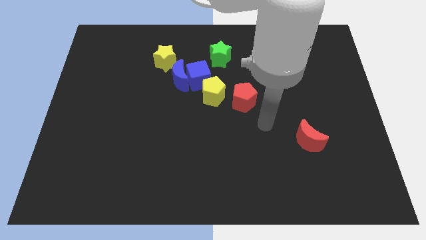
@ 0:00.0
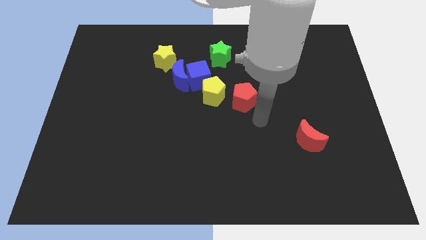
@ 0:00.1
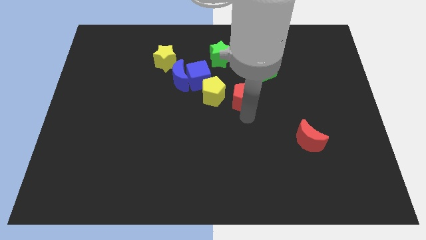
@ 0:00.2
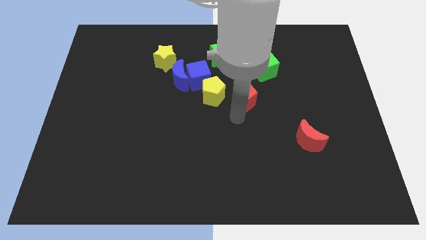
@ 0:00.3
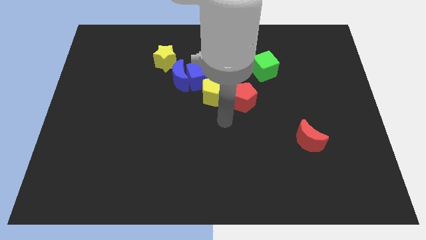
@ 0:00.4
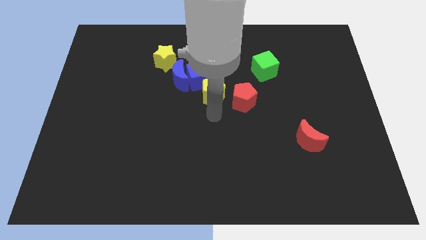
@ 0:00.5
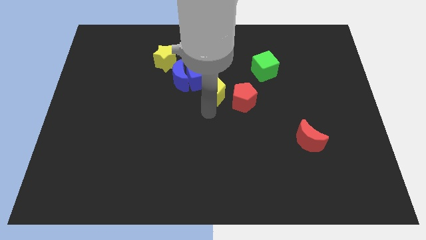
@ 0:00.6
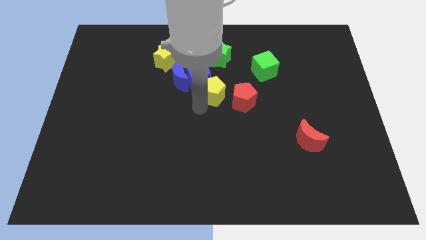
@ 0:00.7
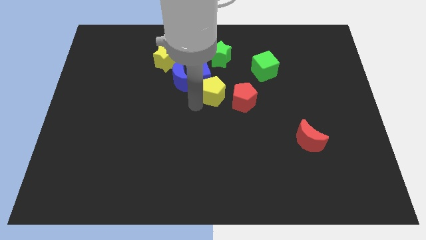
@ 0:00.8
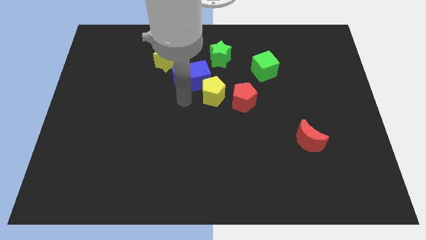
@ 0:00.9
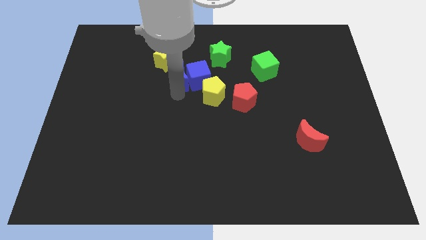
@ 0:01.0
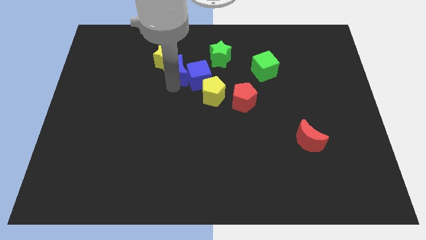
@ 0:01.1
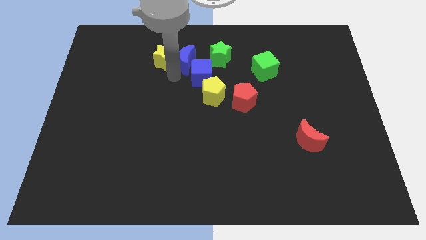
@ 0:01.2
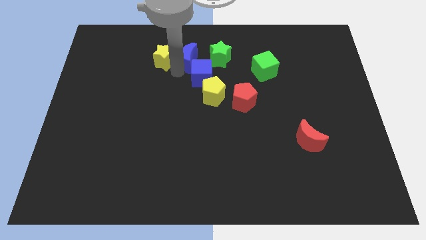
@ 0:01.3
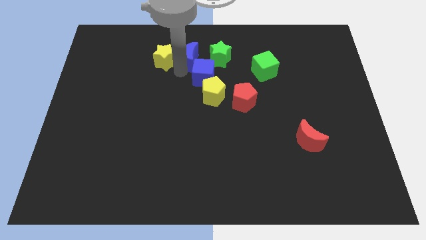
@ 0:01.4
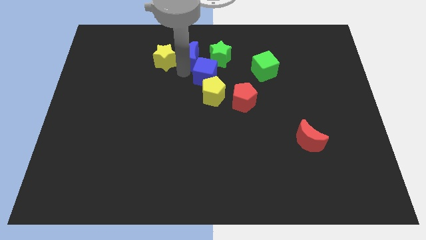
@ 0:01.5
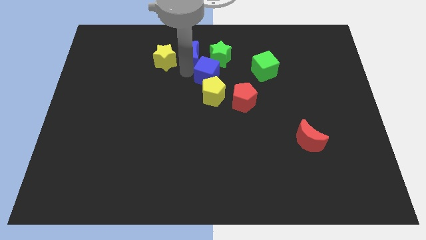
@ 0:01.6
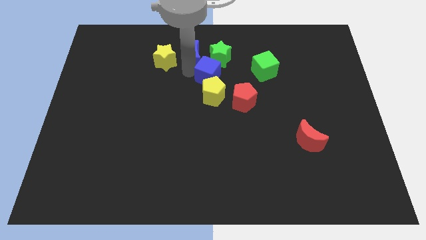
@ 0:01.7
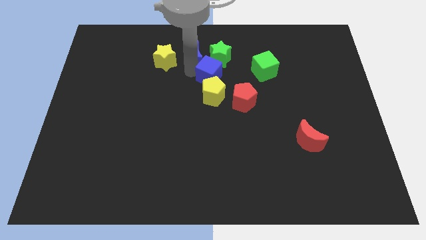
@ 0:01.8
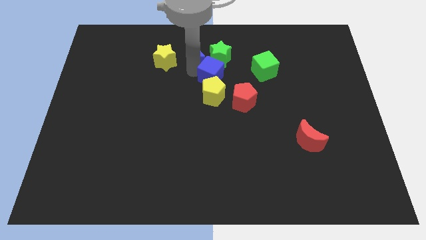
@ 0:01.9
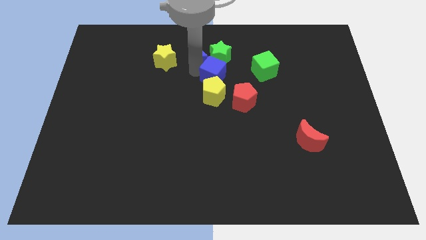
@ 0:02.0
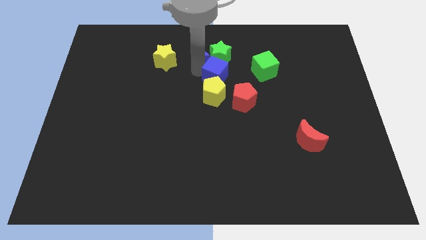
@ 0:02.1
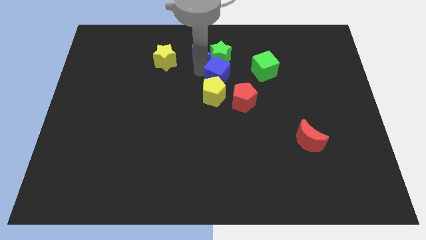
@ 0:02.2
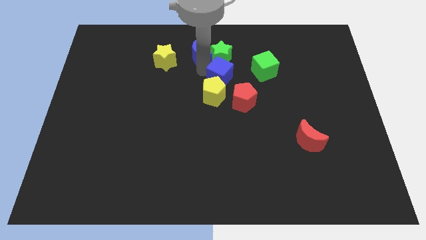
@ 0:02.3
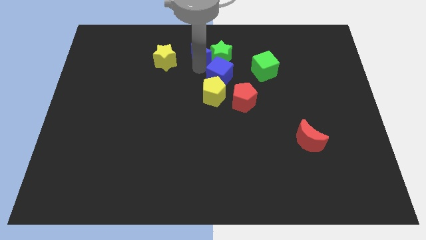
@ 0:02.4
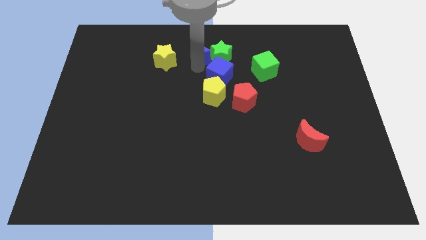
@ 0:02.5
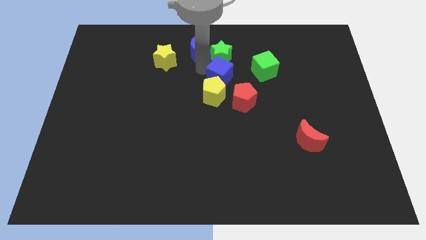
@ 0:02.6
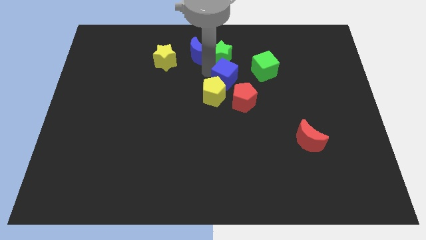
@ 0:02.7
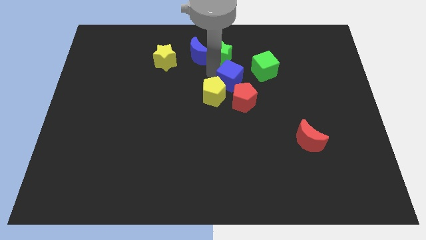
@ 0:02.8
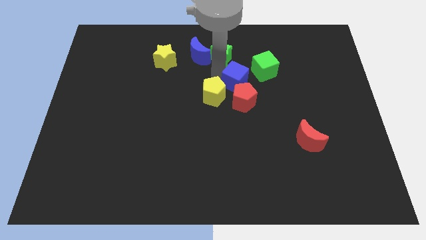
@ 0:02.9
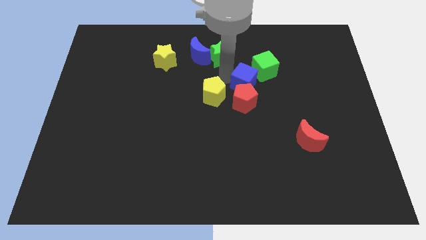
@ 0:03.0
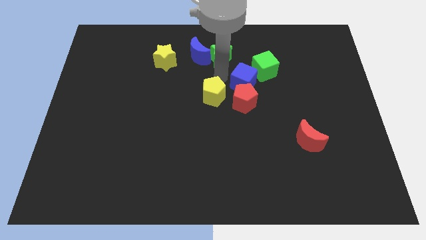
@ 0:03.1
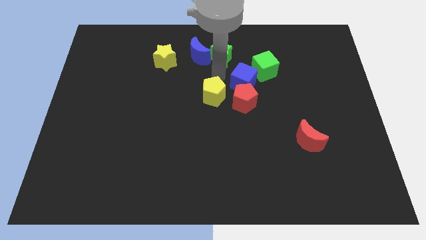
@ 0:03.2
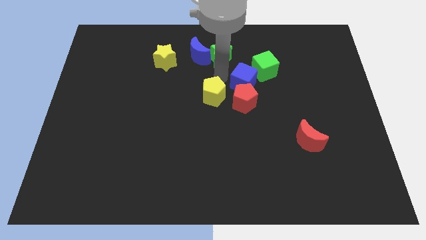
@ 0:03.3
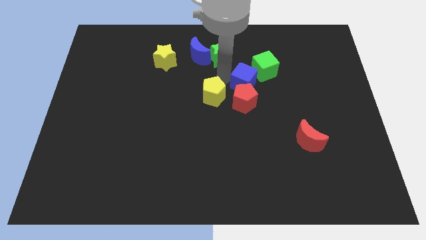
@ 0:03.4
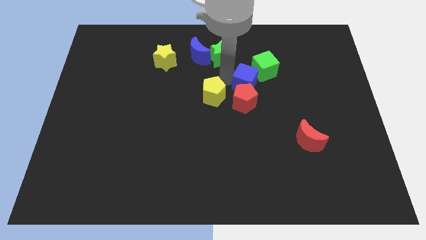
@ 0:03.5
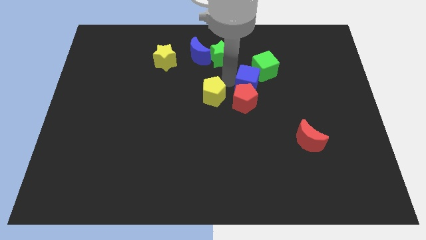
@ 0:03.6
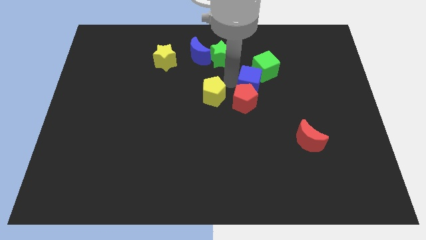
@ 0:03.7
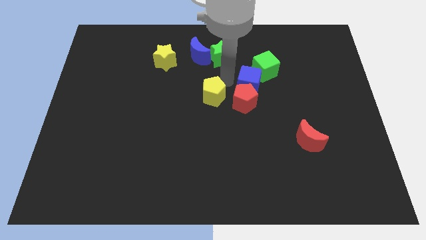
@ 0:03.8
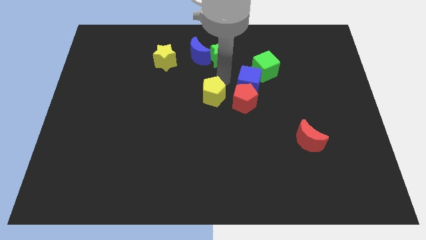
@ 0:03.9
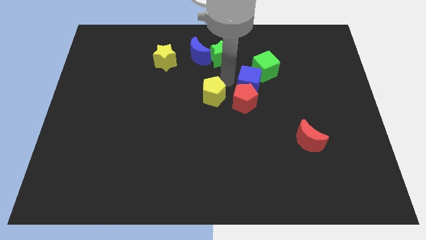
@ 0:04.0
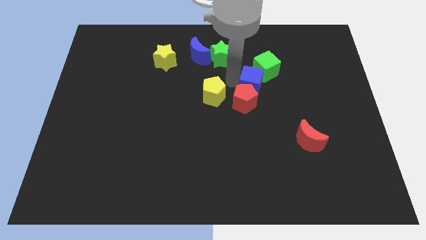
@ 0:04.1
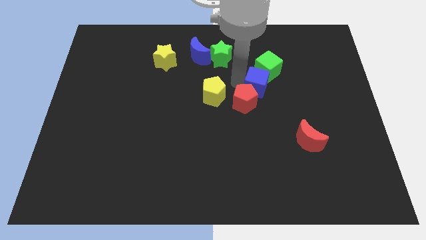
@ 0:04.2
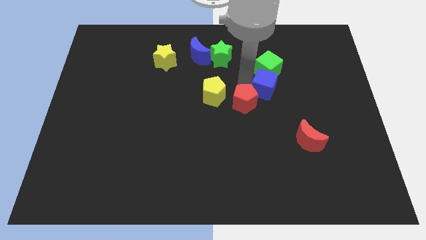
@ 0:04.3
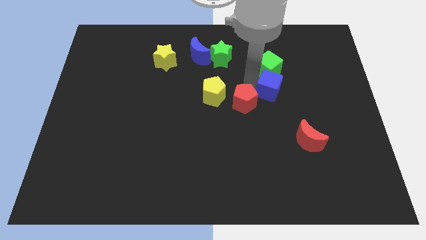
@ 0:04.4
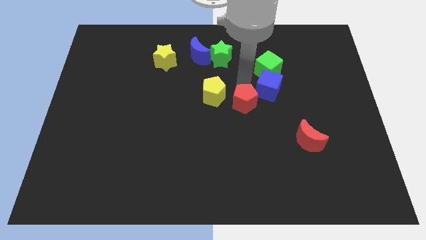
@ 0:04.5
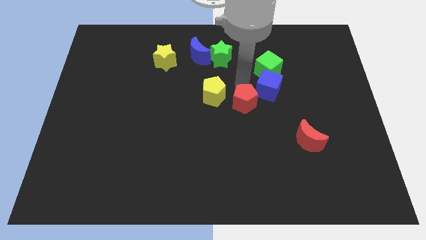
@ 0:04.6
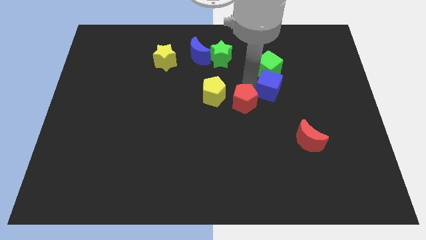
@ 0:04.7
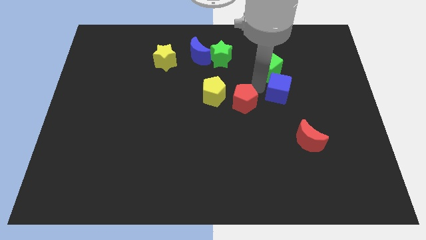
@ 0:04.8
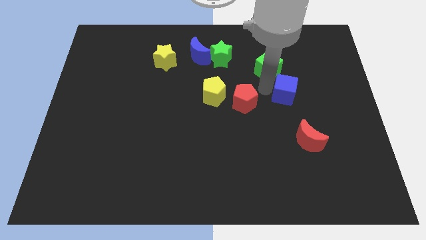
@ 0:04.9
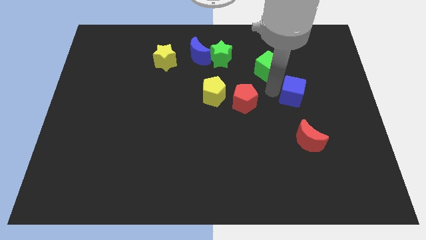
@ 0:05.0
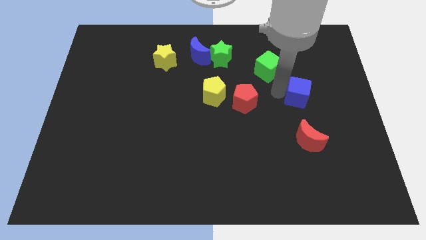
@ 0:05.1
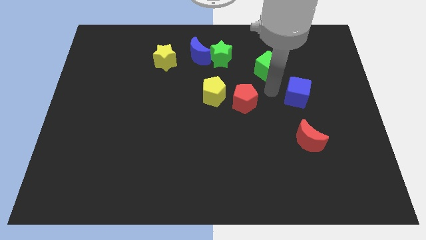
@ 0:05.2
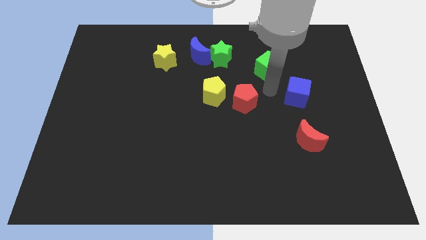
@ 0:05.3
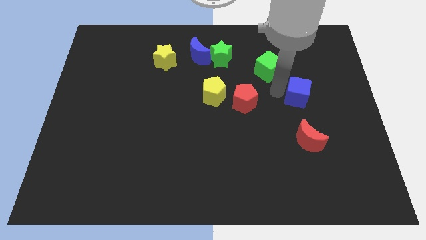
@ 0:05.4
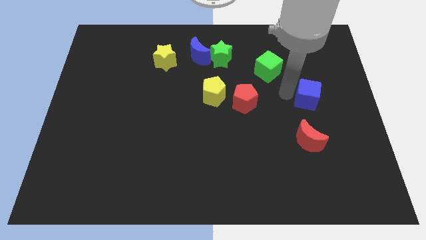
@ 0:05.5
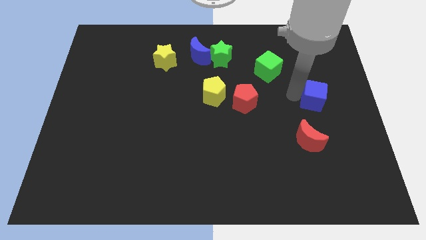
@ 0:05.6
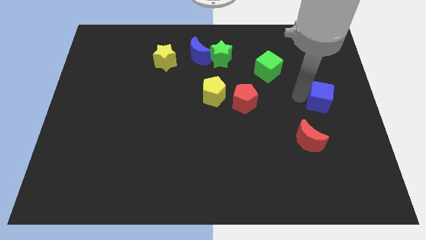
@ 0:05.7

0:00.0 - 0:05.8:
move the blue cube to the center right

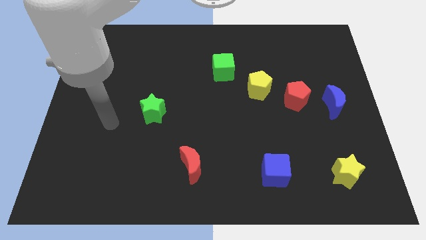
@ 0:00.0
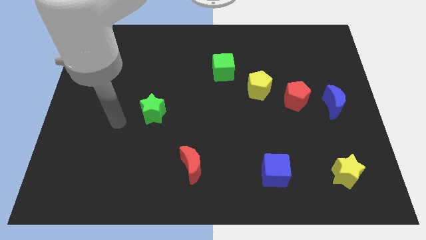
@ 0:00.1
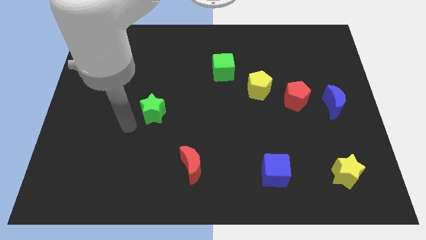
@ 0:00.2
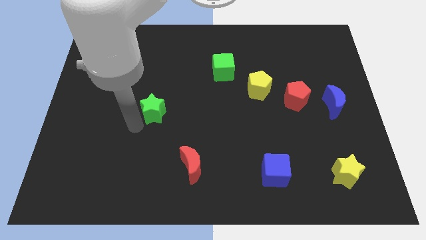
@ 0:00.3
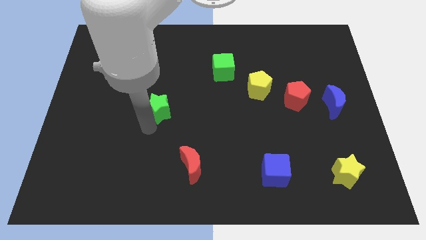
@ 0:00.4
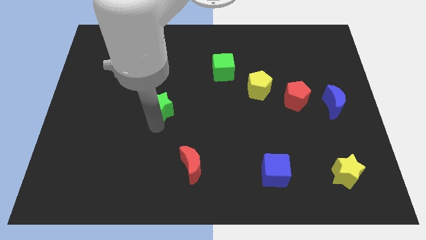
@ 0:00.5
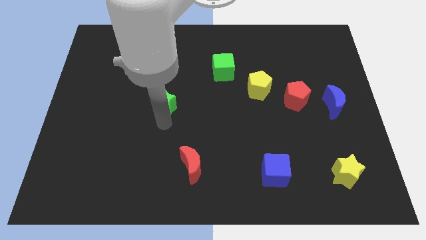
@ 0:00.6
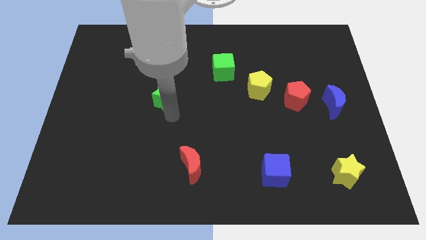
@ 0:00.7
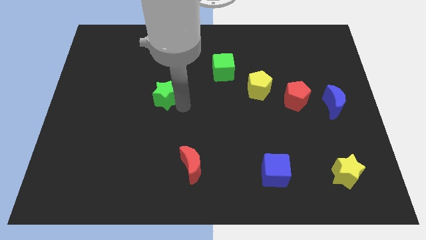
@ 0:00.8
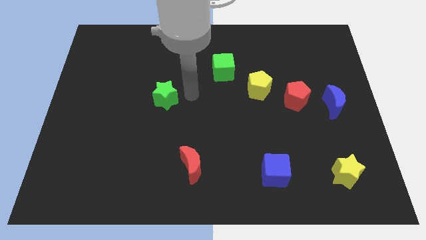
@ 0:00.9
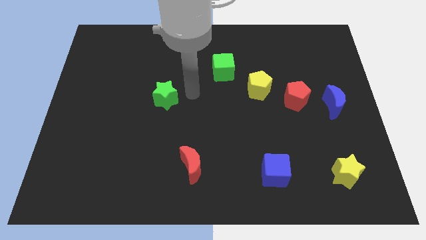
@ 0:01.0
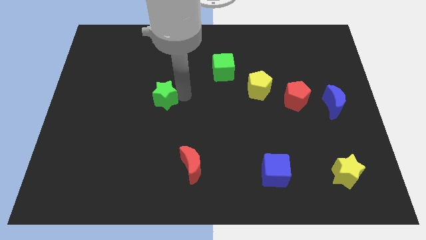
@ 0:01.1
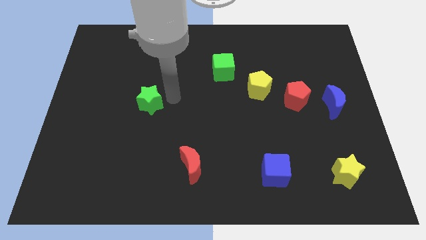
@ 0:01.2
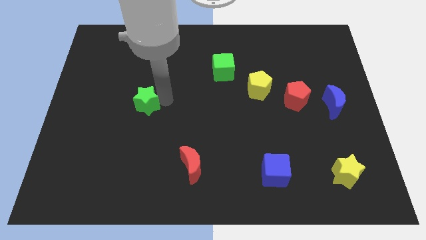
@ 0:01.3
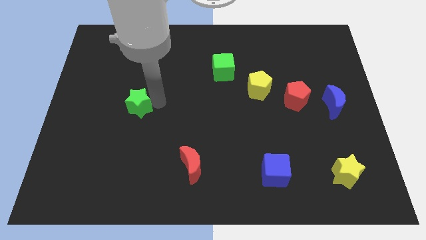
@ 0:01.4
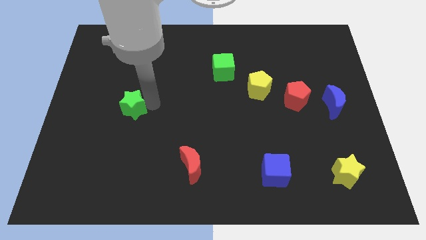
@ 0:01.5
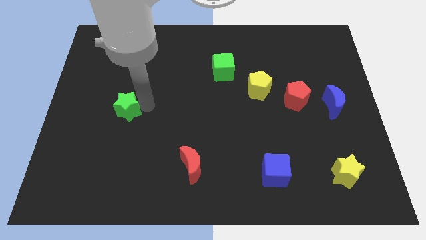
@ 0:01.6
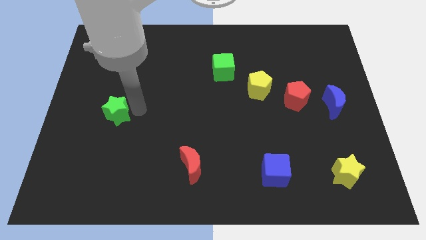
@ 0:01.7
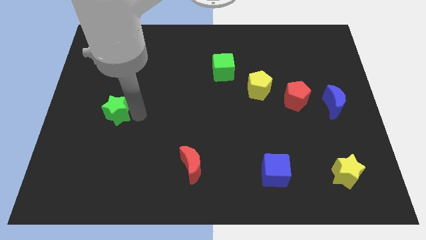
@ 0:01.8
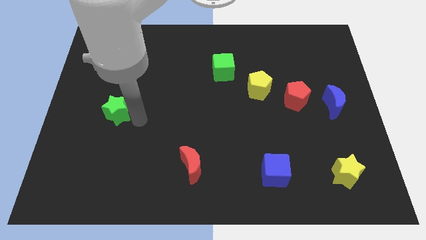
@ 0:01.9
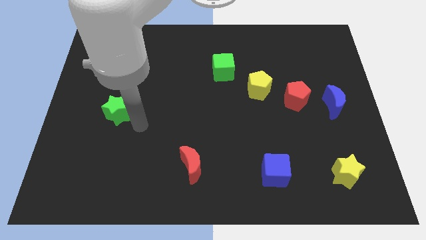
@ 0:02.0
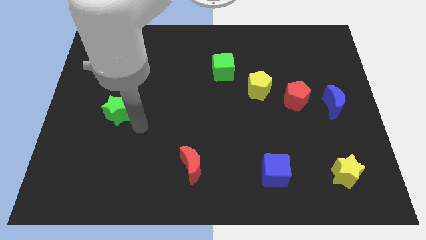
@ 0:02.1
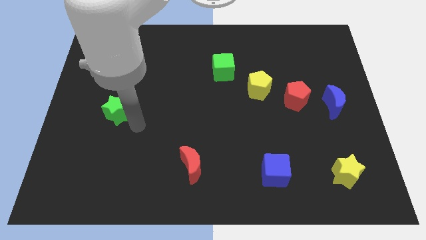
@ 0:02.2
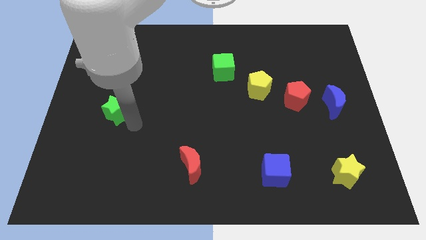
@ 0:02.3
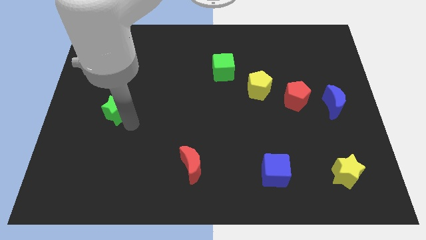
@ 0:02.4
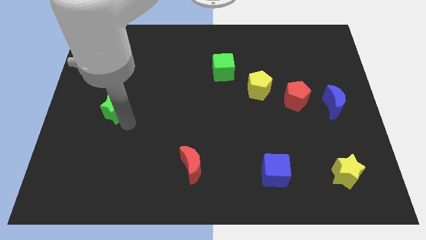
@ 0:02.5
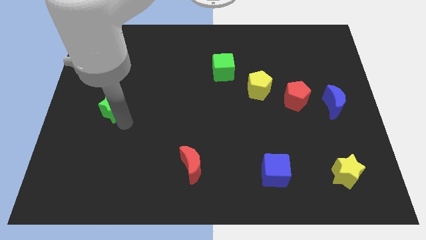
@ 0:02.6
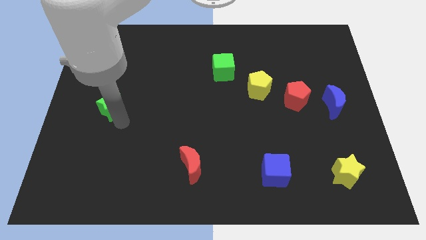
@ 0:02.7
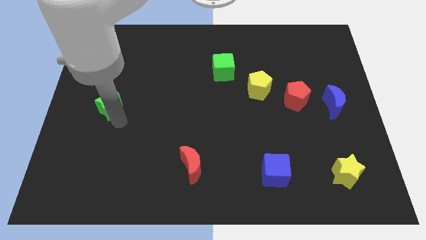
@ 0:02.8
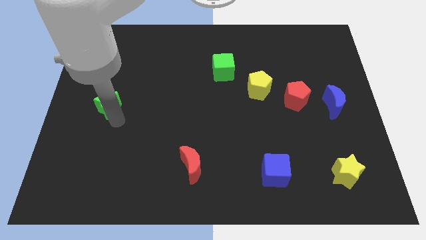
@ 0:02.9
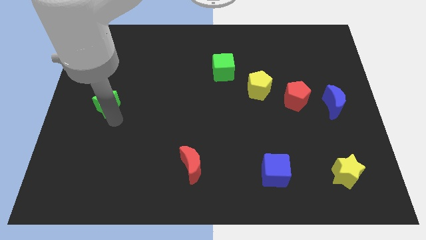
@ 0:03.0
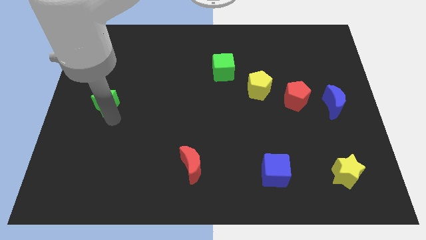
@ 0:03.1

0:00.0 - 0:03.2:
slide the green star to the center left
